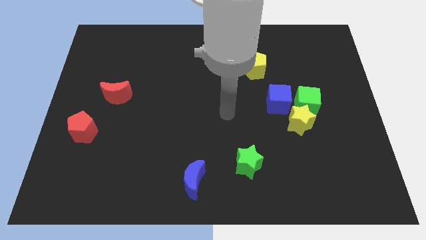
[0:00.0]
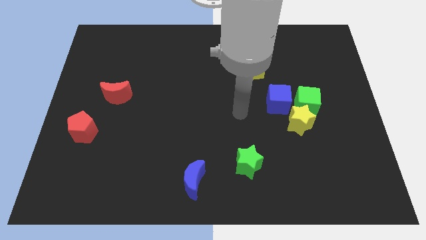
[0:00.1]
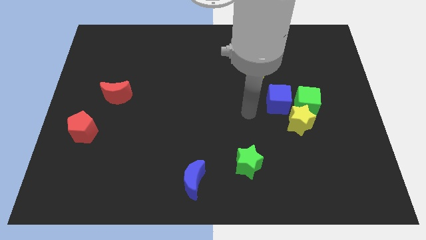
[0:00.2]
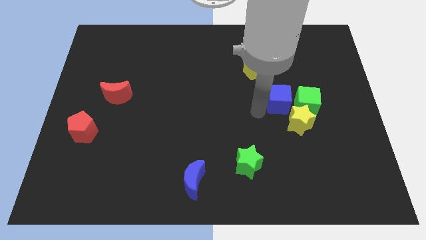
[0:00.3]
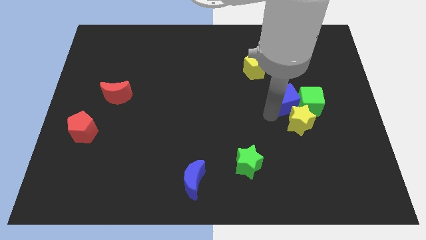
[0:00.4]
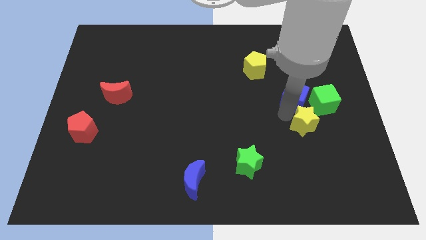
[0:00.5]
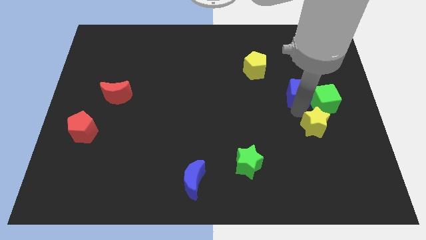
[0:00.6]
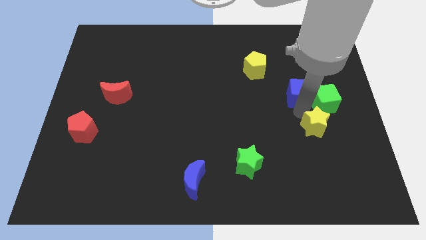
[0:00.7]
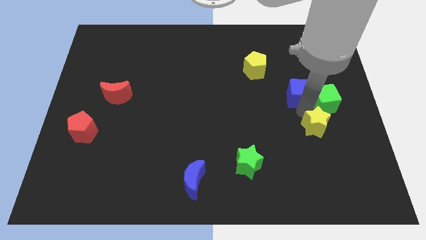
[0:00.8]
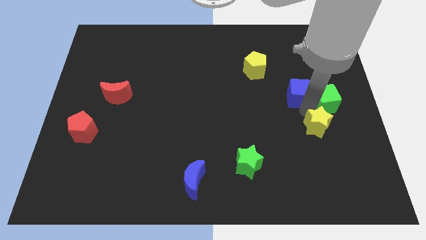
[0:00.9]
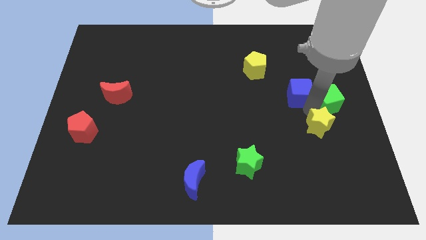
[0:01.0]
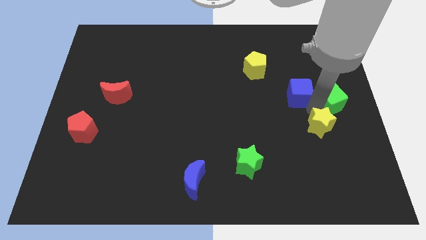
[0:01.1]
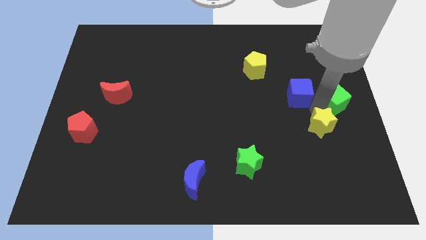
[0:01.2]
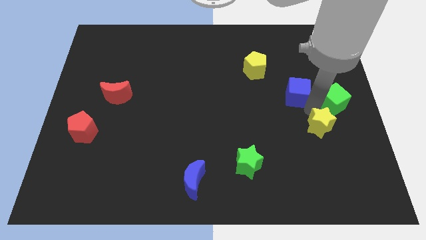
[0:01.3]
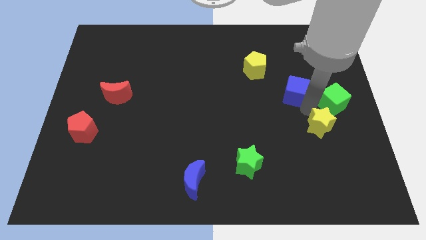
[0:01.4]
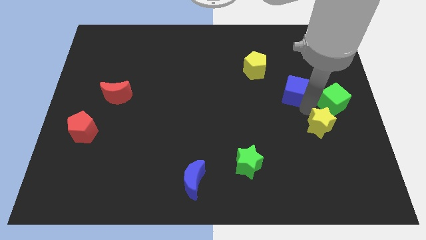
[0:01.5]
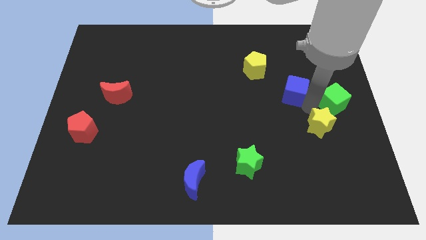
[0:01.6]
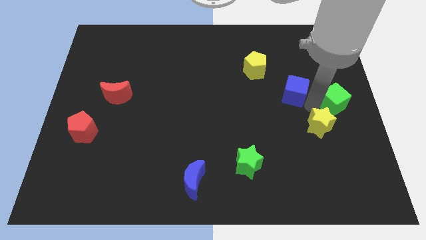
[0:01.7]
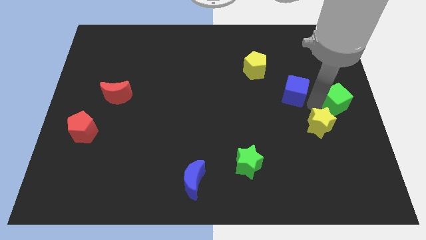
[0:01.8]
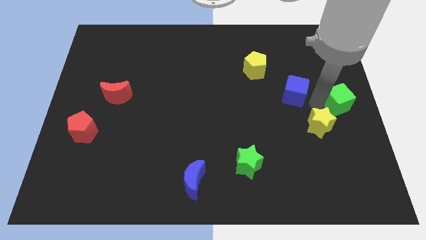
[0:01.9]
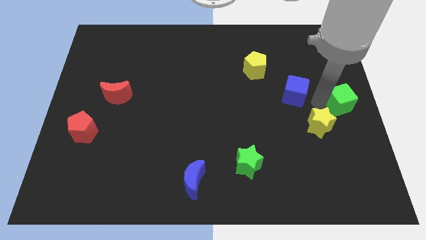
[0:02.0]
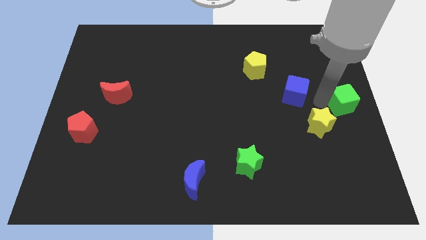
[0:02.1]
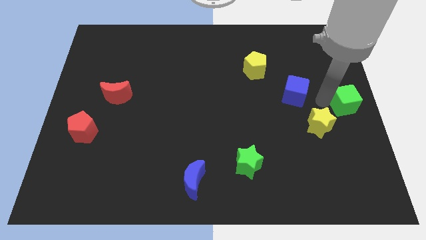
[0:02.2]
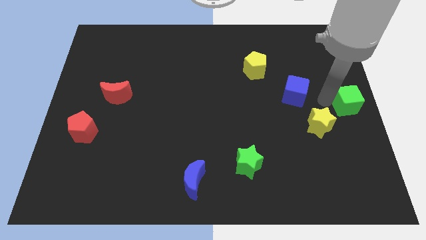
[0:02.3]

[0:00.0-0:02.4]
pull the green cube apart from the yellow star and blue cube

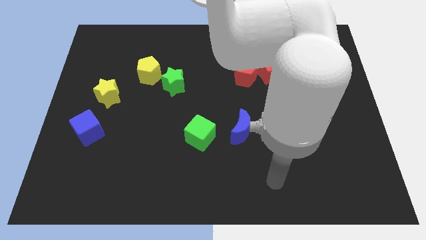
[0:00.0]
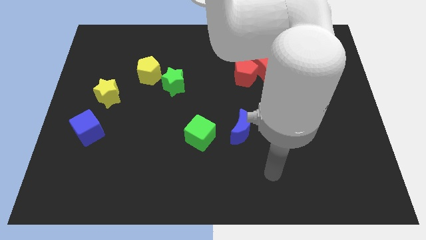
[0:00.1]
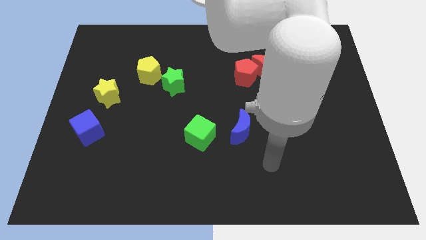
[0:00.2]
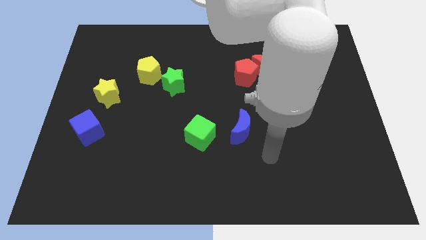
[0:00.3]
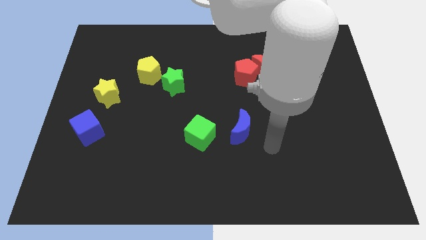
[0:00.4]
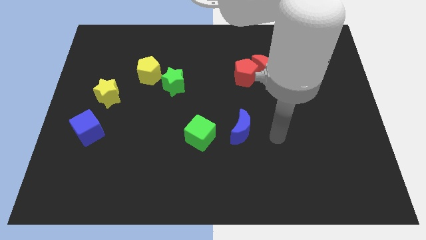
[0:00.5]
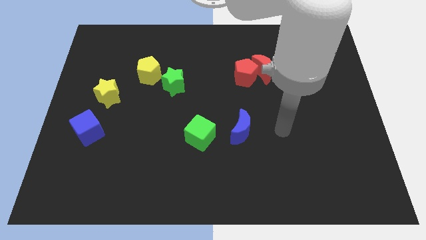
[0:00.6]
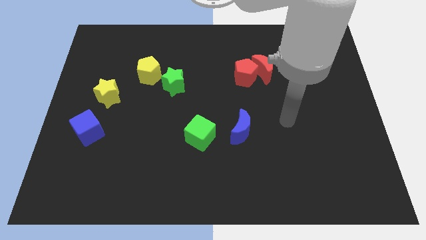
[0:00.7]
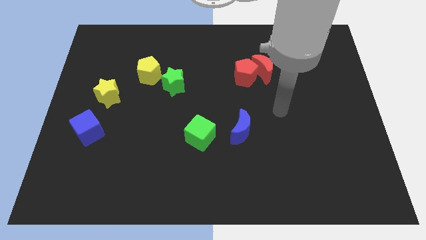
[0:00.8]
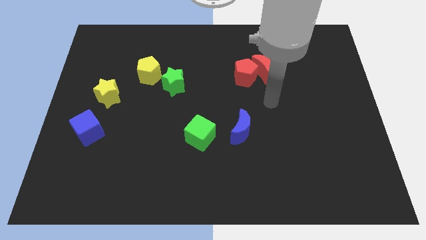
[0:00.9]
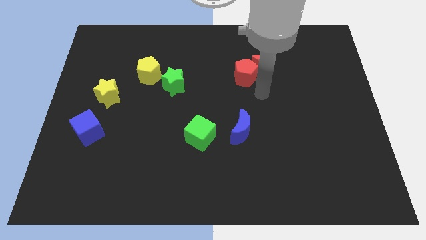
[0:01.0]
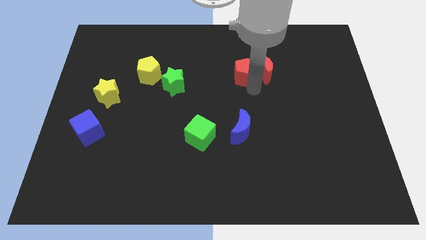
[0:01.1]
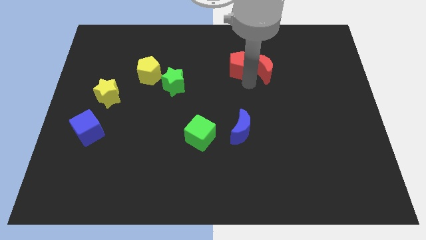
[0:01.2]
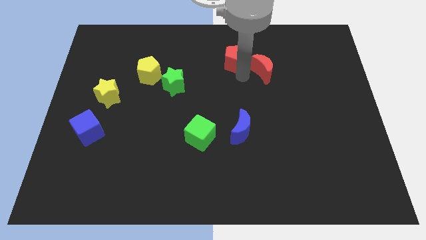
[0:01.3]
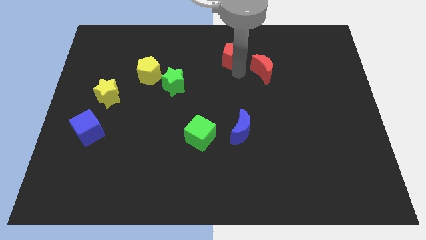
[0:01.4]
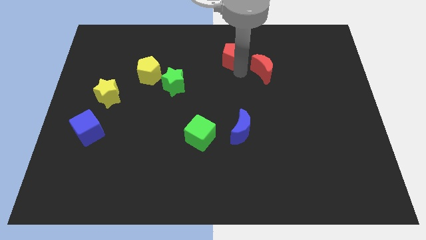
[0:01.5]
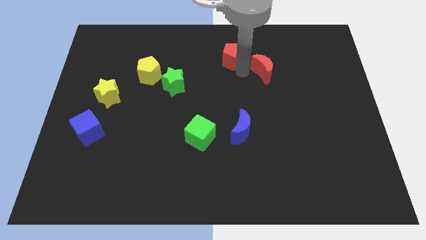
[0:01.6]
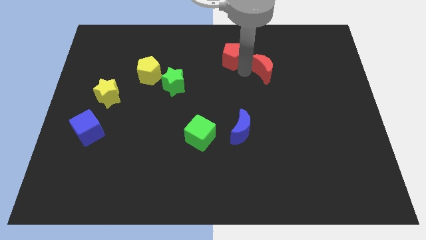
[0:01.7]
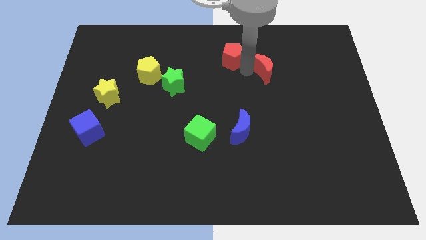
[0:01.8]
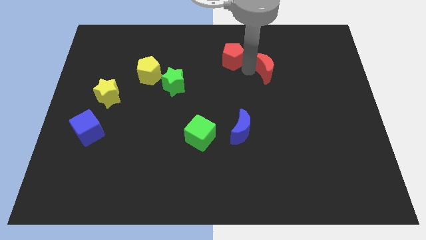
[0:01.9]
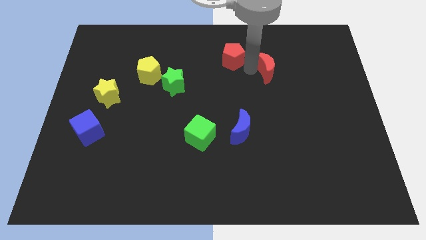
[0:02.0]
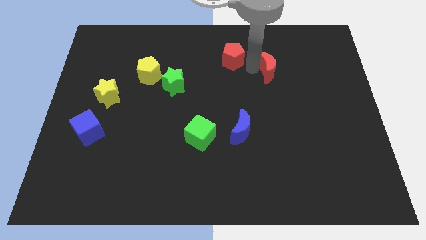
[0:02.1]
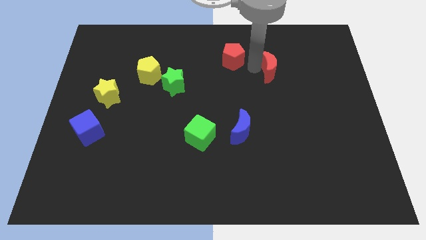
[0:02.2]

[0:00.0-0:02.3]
move the red moon away from the red pentagon

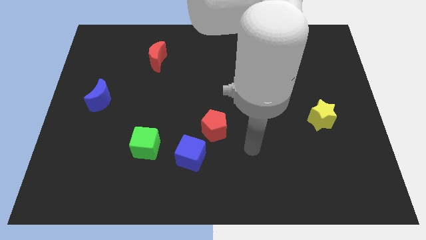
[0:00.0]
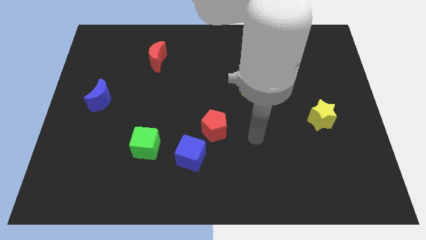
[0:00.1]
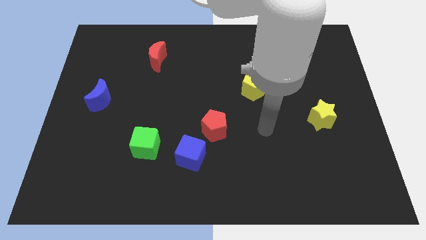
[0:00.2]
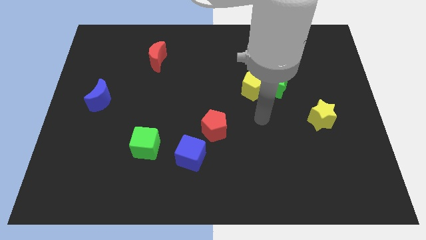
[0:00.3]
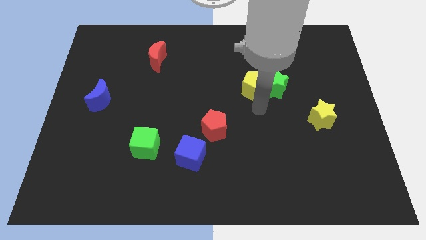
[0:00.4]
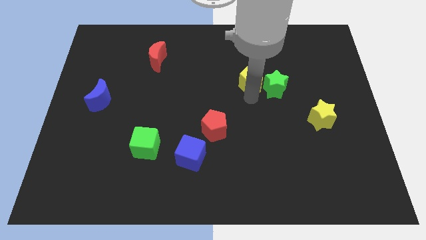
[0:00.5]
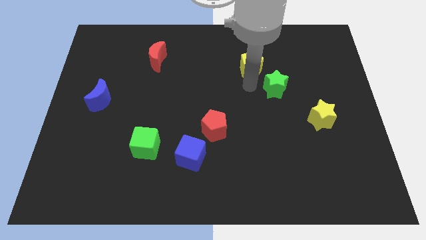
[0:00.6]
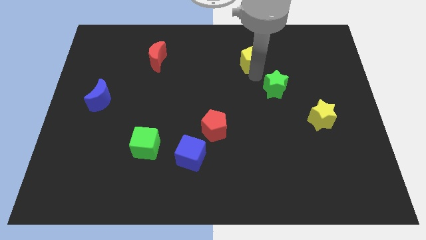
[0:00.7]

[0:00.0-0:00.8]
separate the green star from the yellow pentagon

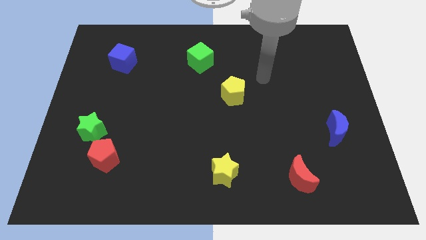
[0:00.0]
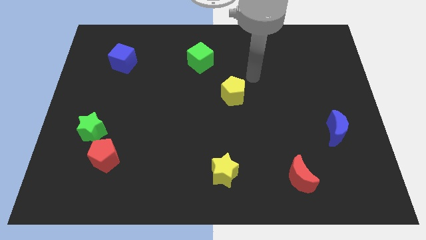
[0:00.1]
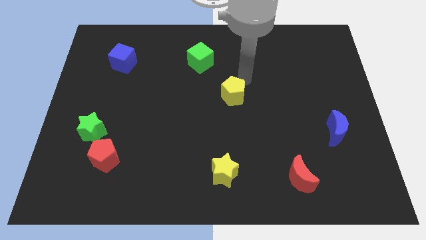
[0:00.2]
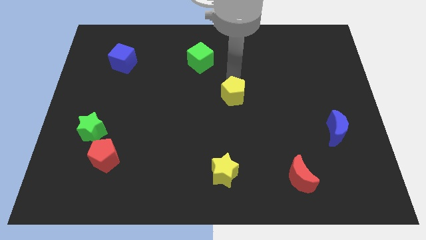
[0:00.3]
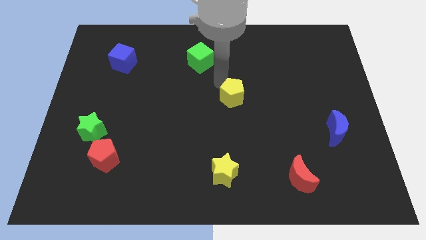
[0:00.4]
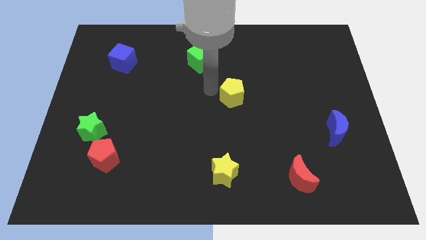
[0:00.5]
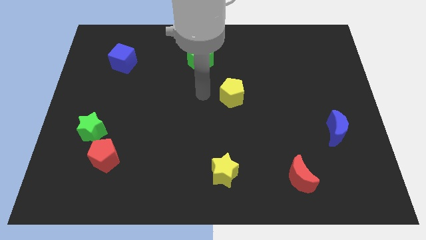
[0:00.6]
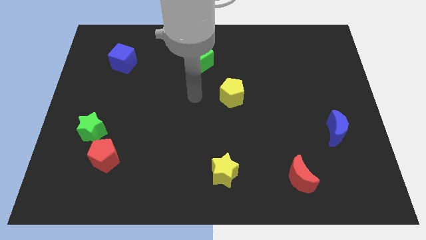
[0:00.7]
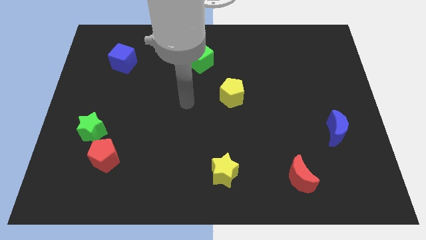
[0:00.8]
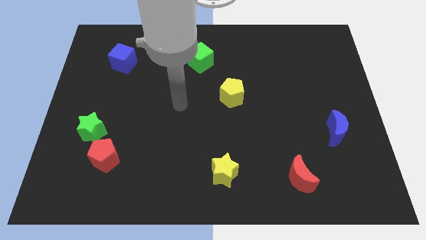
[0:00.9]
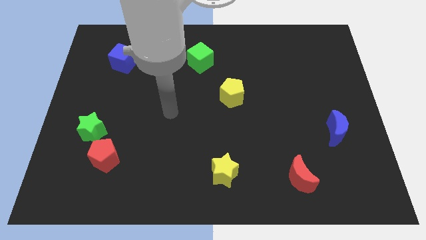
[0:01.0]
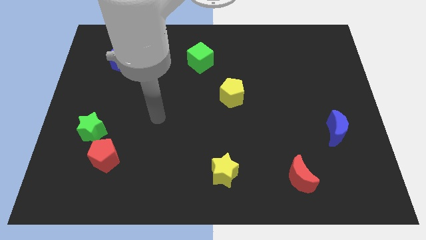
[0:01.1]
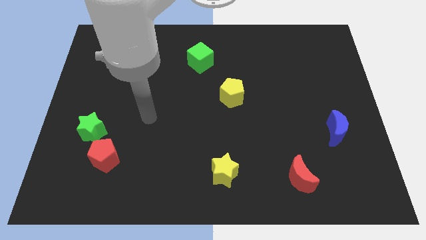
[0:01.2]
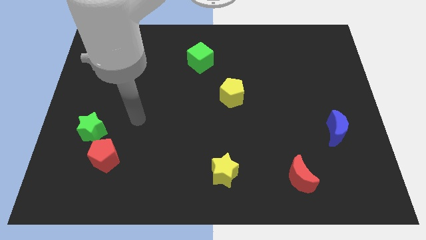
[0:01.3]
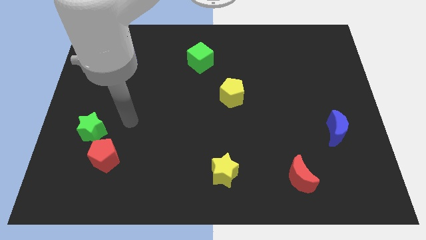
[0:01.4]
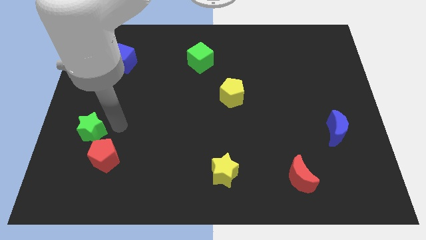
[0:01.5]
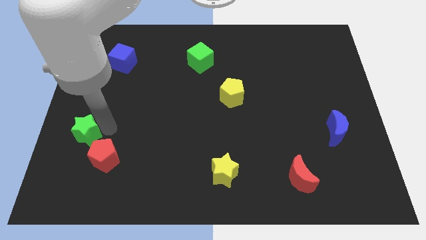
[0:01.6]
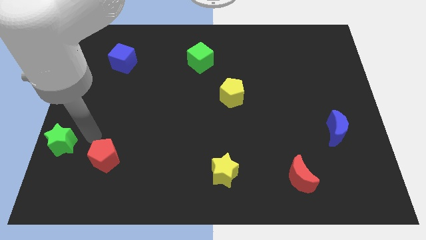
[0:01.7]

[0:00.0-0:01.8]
pull the red pentagon apart from the green star

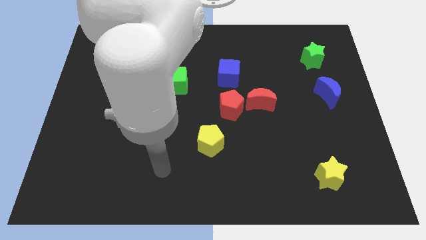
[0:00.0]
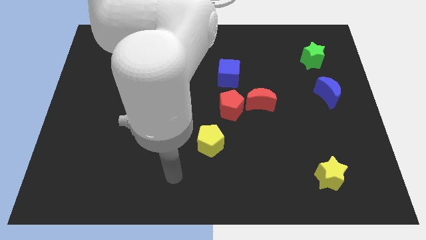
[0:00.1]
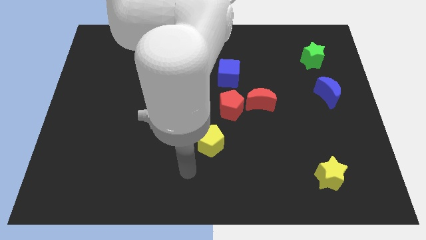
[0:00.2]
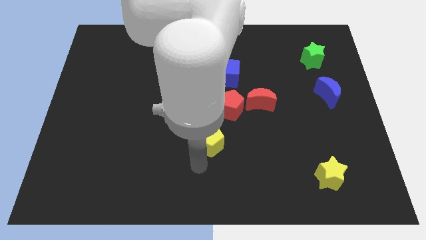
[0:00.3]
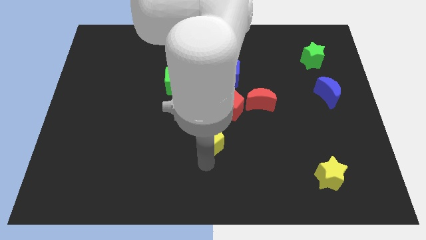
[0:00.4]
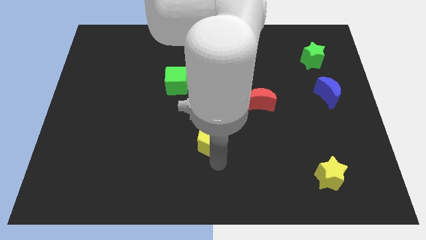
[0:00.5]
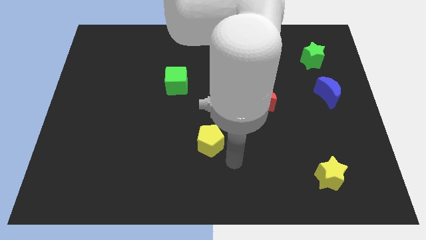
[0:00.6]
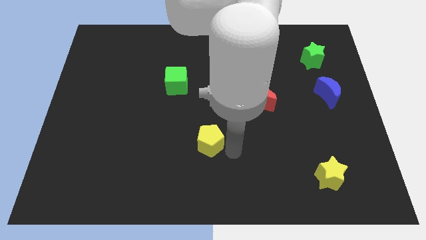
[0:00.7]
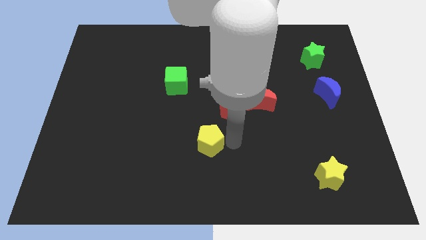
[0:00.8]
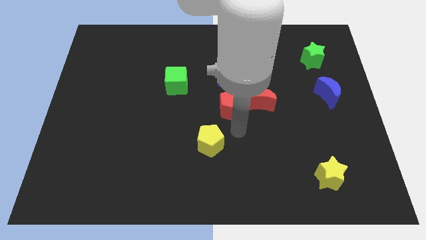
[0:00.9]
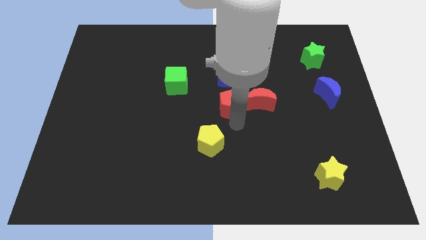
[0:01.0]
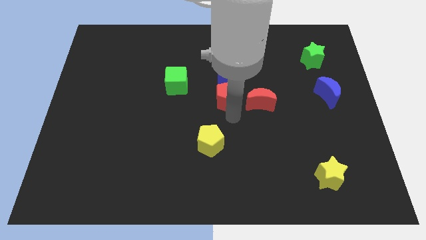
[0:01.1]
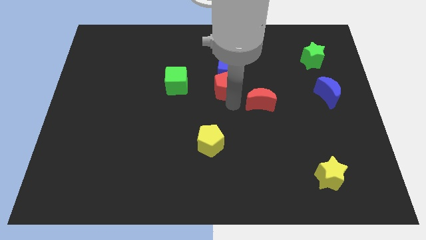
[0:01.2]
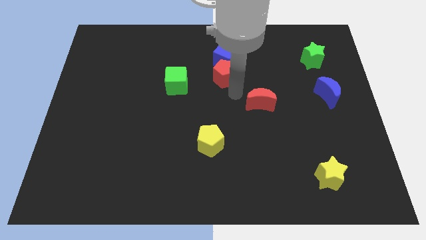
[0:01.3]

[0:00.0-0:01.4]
pull the red moon apart from the red pentagon

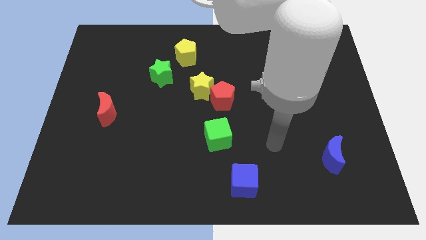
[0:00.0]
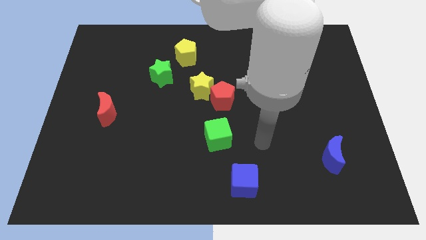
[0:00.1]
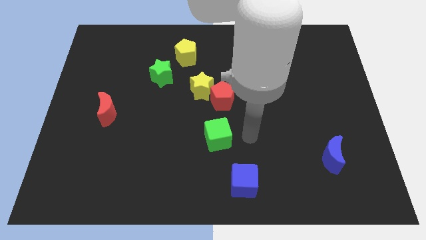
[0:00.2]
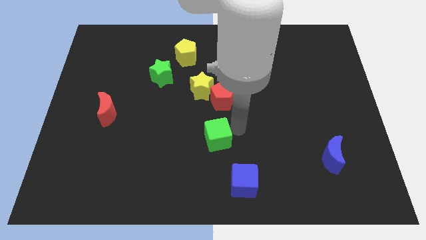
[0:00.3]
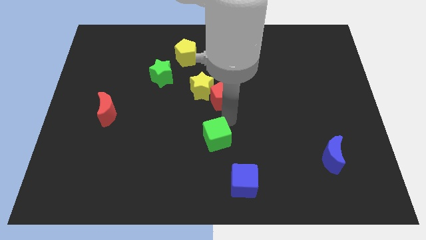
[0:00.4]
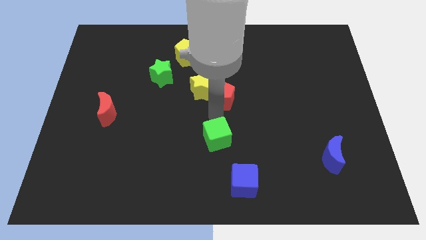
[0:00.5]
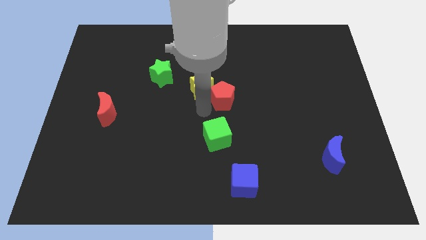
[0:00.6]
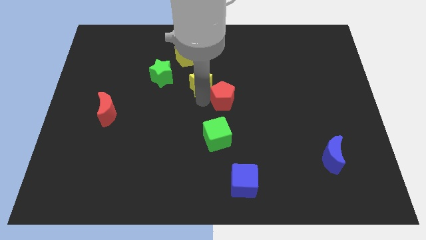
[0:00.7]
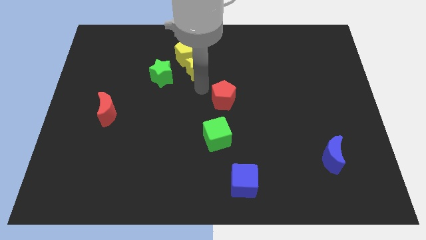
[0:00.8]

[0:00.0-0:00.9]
move the red pentagon away from the yellow star
